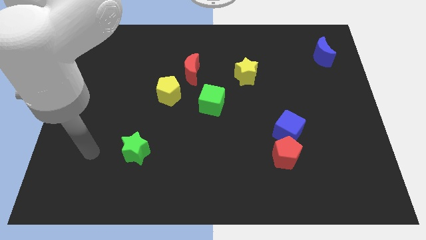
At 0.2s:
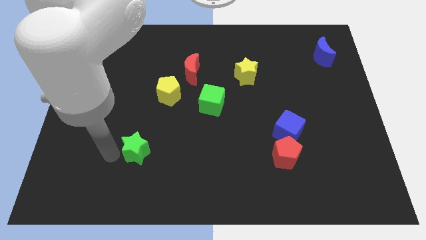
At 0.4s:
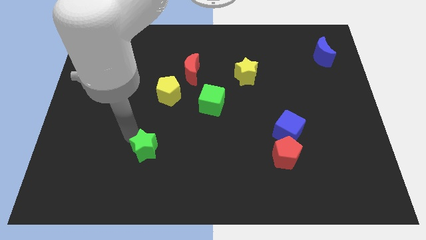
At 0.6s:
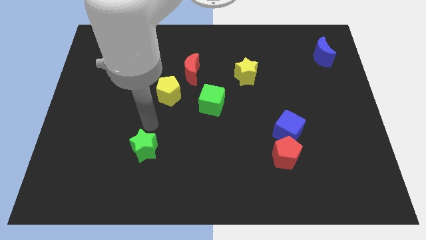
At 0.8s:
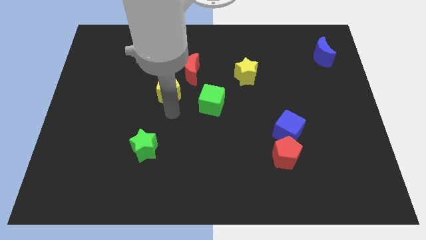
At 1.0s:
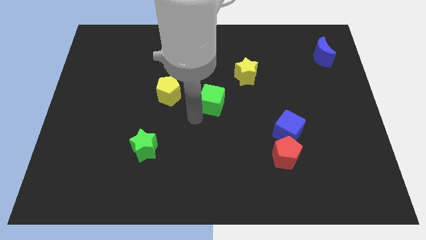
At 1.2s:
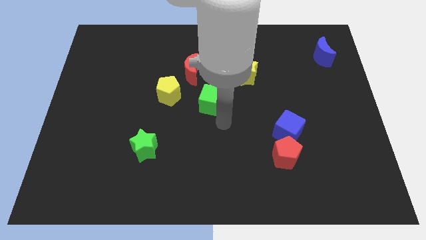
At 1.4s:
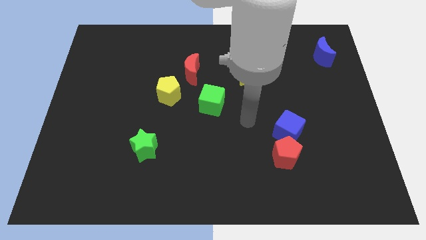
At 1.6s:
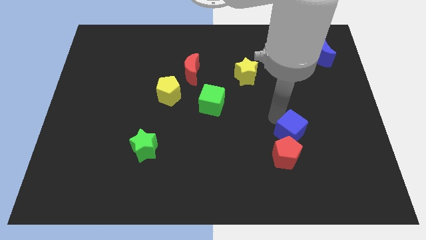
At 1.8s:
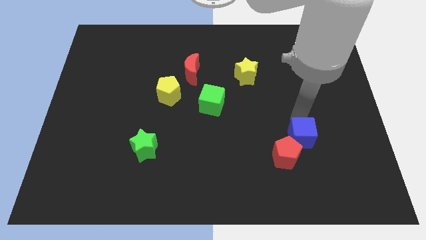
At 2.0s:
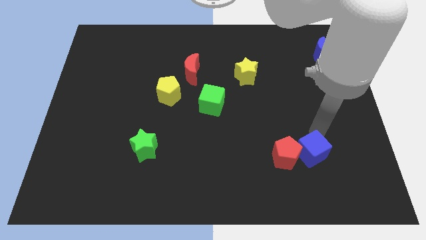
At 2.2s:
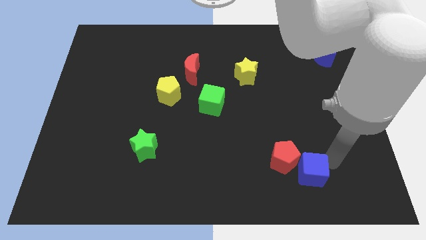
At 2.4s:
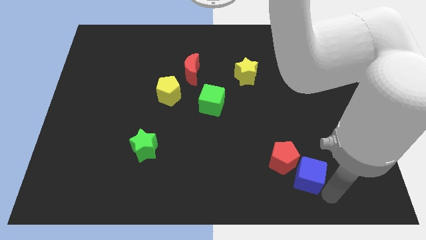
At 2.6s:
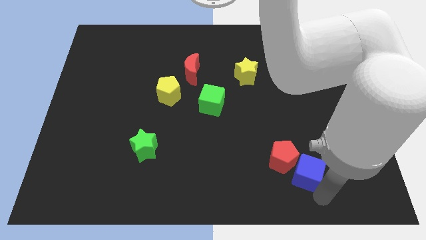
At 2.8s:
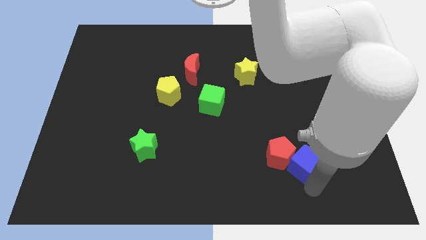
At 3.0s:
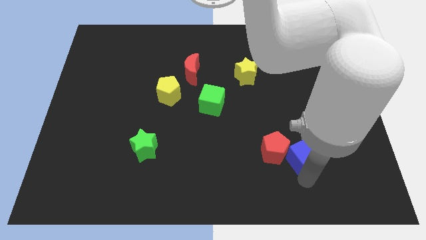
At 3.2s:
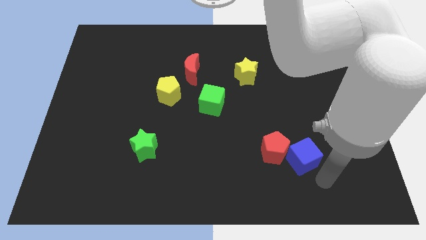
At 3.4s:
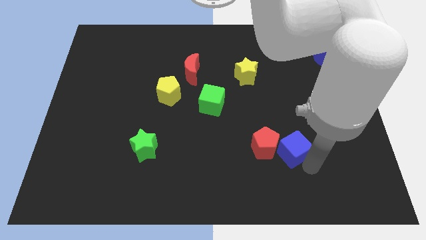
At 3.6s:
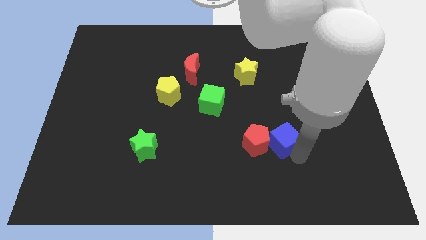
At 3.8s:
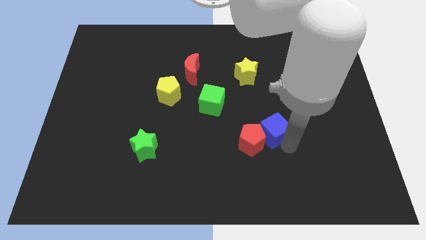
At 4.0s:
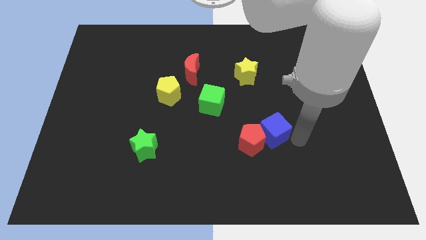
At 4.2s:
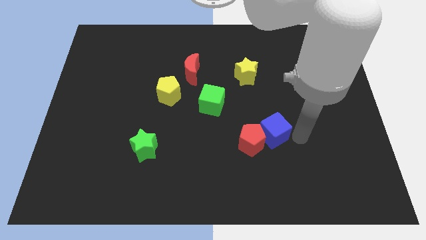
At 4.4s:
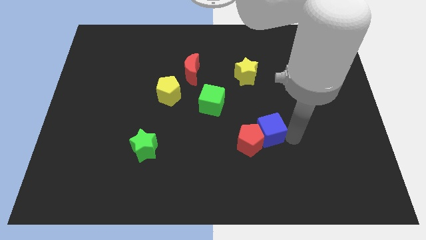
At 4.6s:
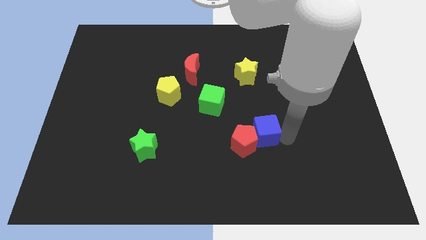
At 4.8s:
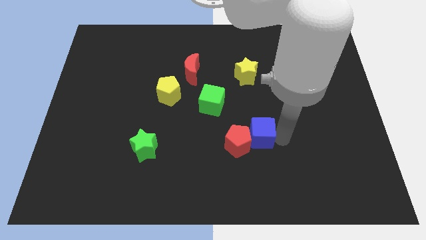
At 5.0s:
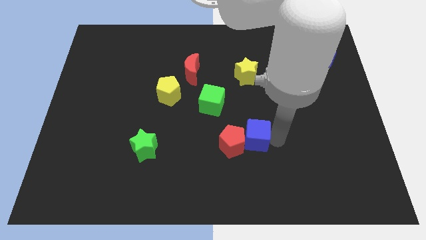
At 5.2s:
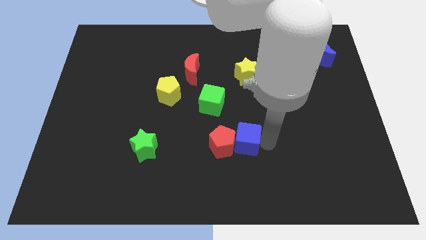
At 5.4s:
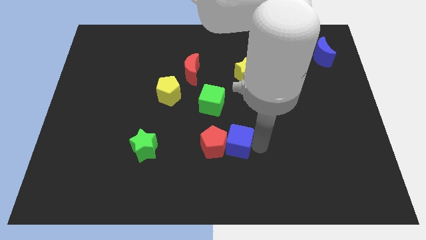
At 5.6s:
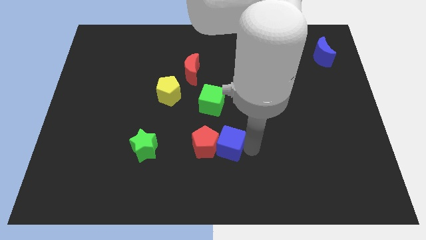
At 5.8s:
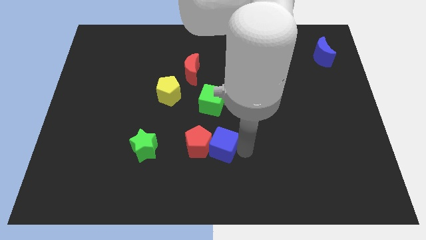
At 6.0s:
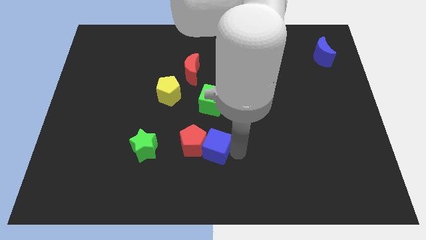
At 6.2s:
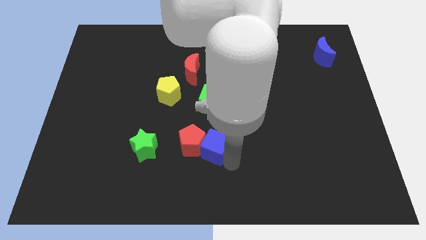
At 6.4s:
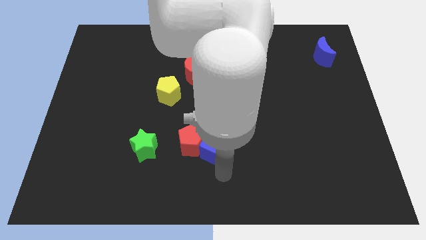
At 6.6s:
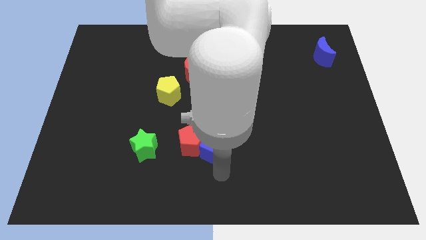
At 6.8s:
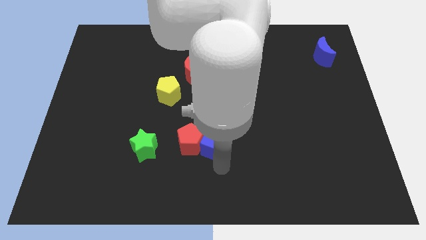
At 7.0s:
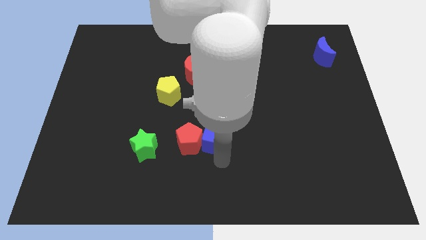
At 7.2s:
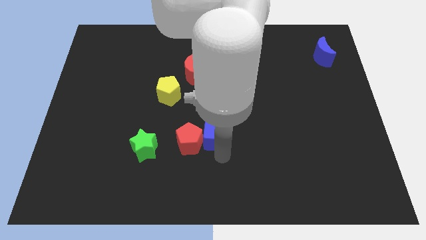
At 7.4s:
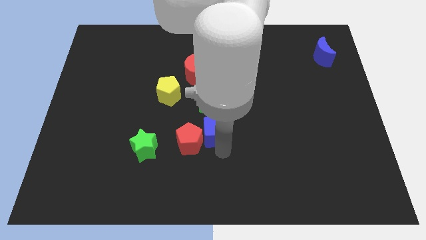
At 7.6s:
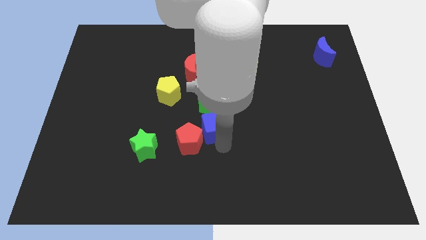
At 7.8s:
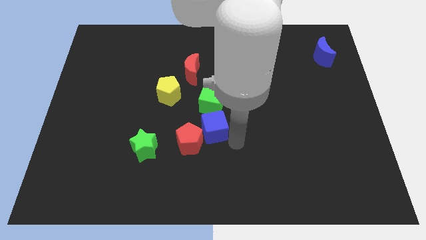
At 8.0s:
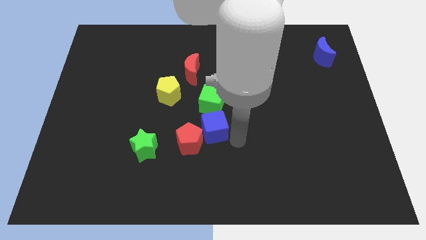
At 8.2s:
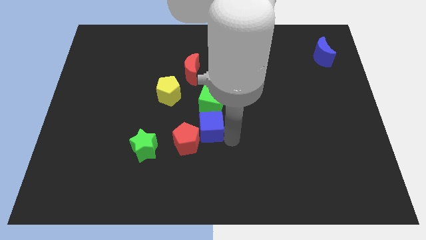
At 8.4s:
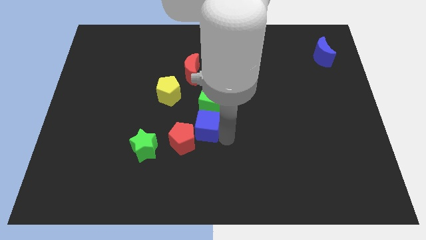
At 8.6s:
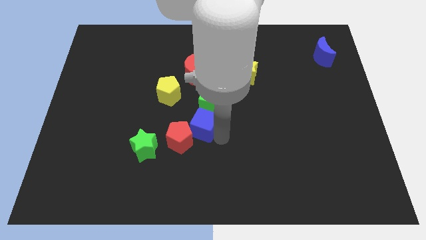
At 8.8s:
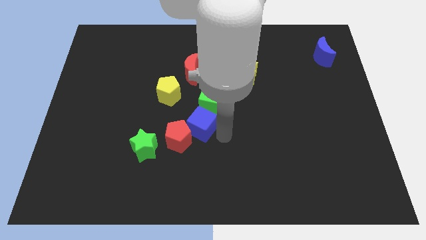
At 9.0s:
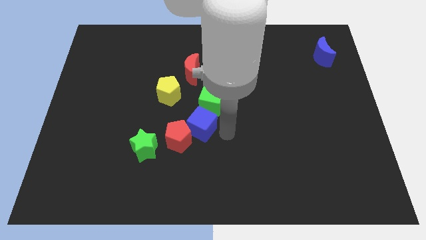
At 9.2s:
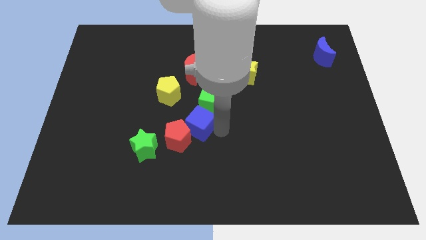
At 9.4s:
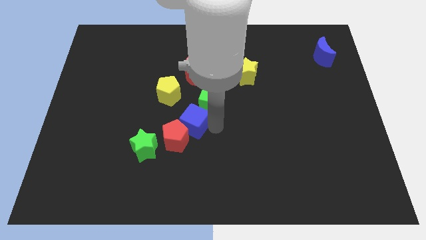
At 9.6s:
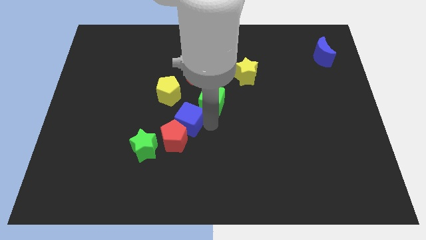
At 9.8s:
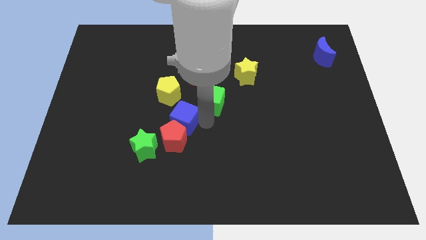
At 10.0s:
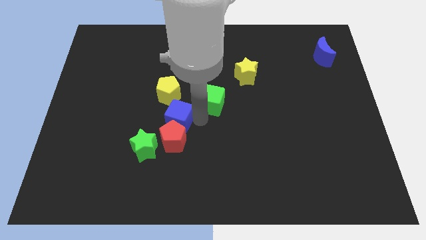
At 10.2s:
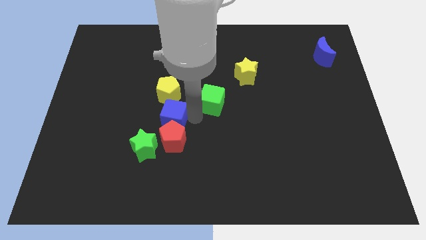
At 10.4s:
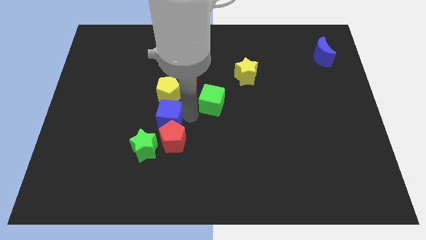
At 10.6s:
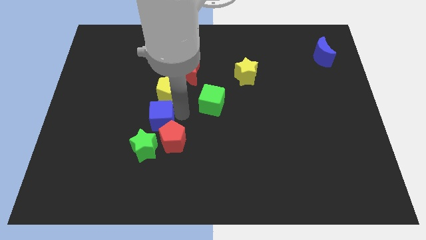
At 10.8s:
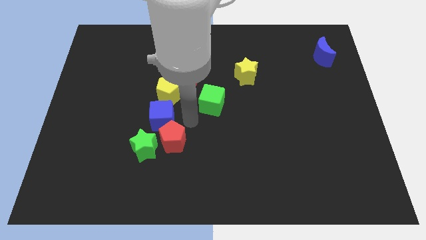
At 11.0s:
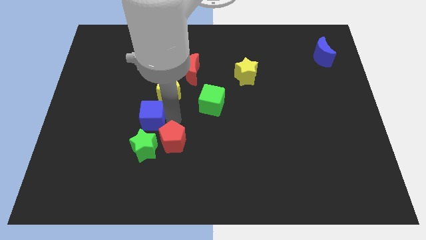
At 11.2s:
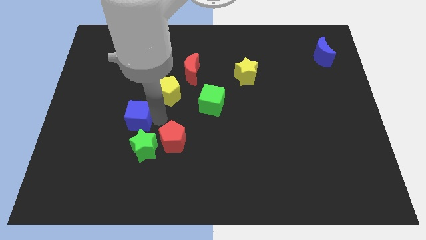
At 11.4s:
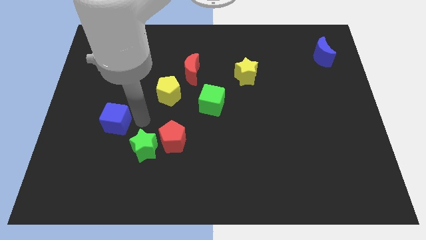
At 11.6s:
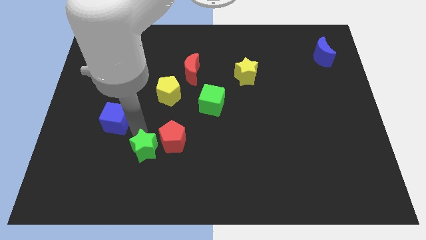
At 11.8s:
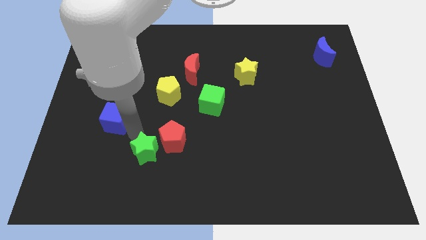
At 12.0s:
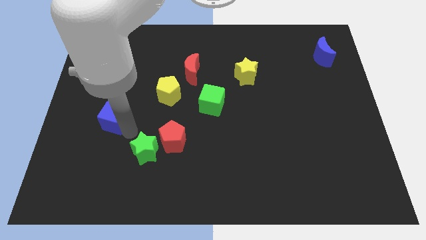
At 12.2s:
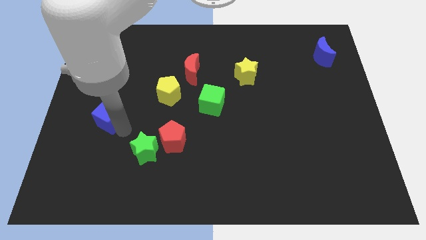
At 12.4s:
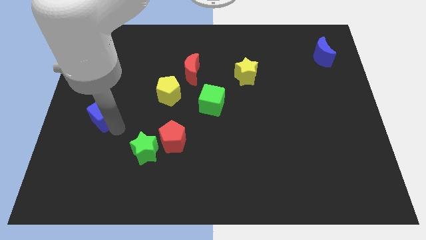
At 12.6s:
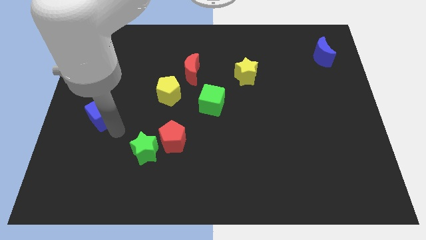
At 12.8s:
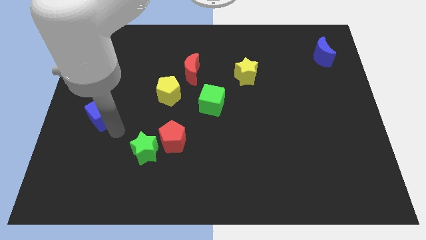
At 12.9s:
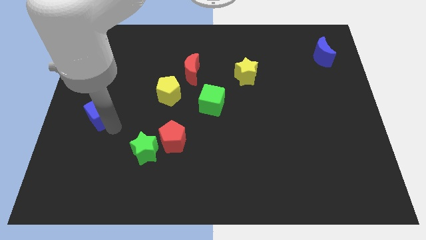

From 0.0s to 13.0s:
slide the blue cube to the left side

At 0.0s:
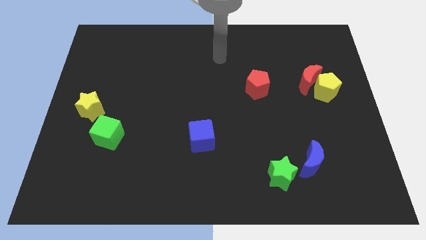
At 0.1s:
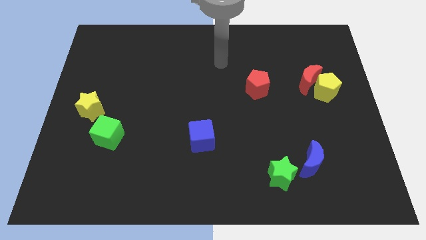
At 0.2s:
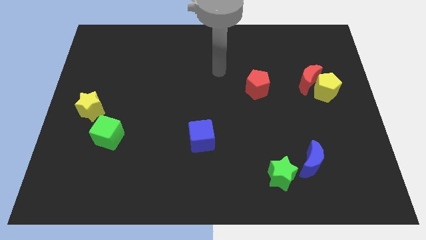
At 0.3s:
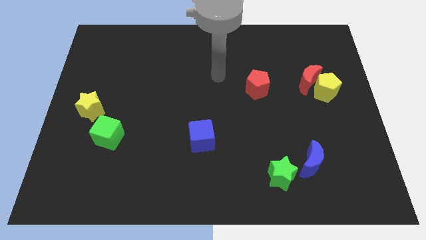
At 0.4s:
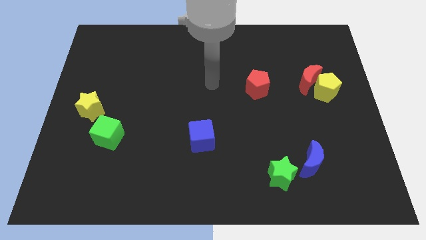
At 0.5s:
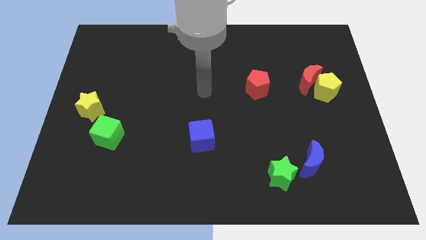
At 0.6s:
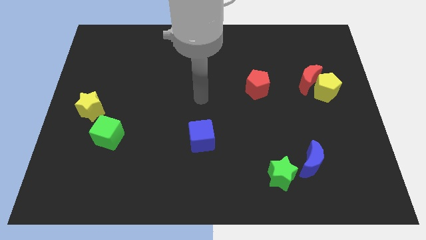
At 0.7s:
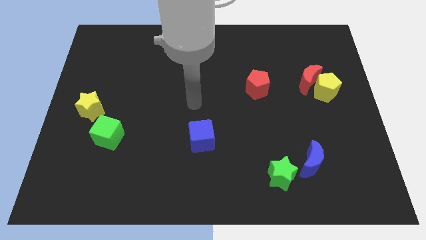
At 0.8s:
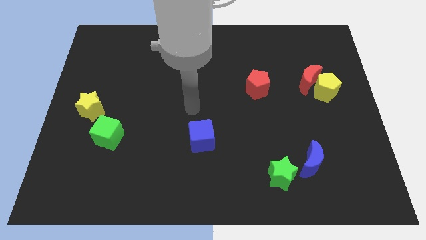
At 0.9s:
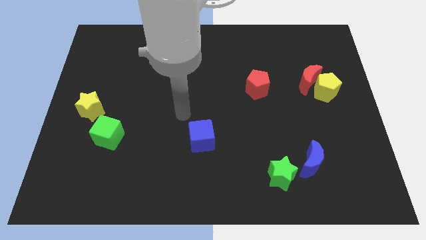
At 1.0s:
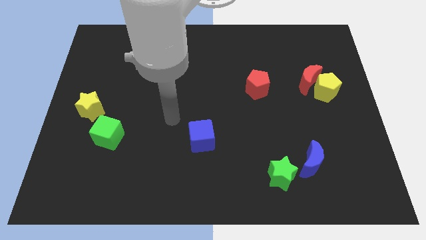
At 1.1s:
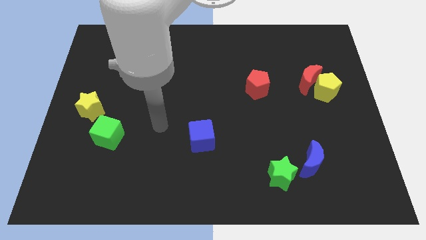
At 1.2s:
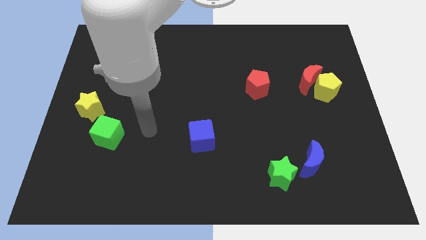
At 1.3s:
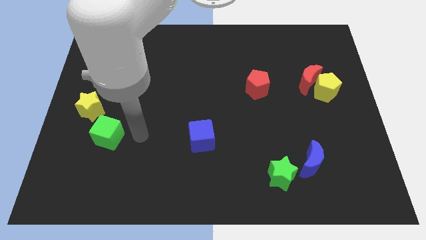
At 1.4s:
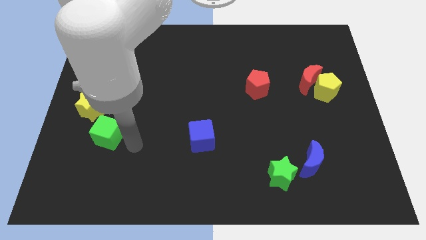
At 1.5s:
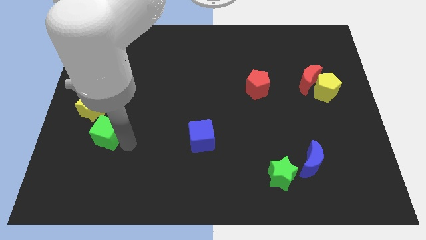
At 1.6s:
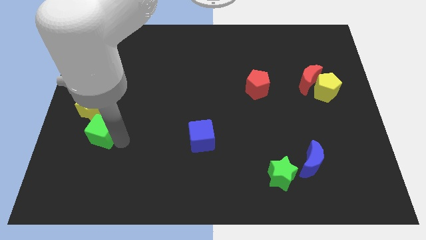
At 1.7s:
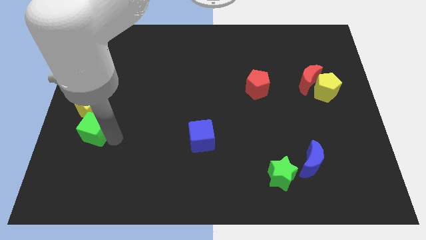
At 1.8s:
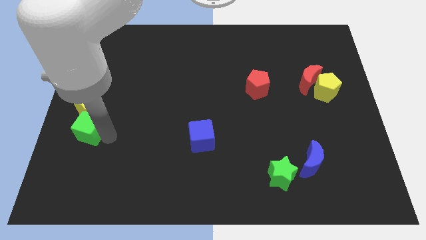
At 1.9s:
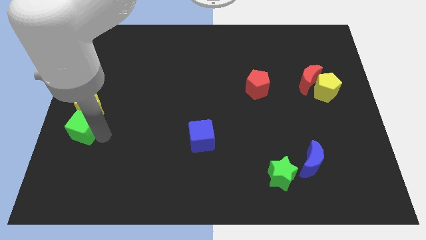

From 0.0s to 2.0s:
push the green cube to the left side of the board
